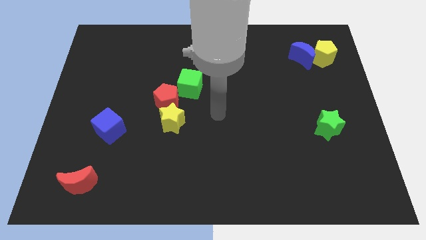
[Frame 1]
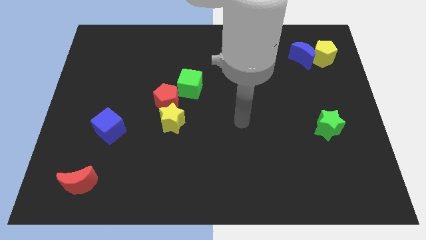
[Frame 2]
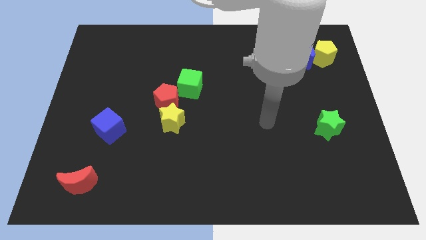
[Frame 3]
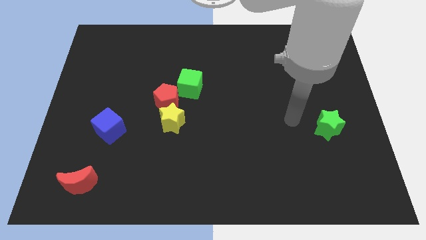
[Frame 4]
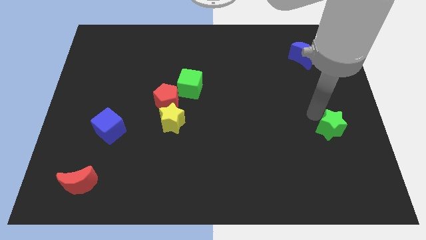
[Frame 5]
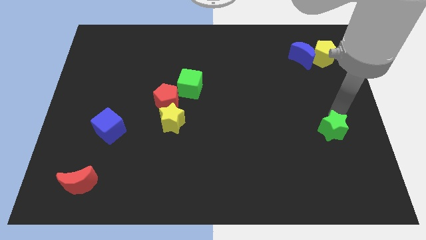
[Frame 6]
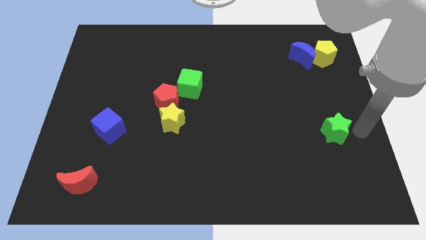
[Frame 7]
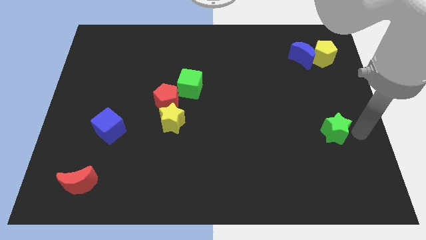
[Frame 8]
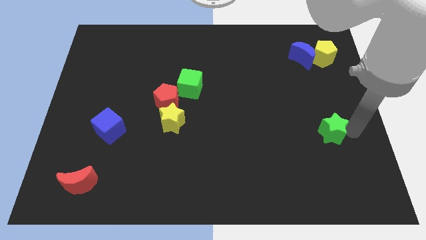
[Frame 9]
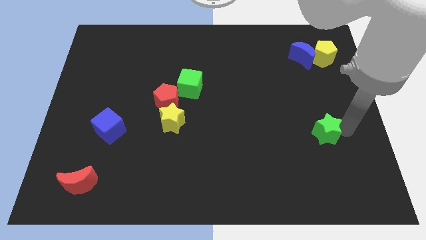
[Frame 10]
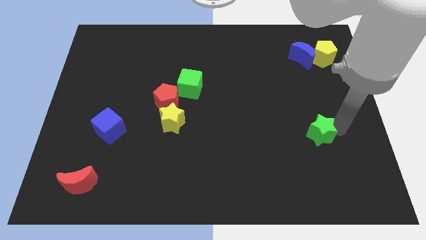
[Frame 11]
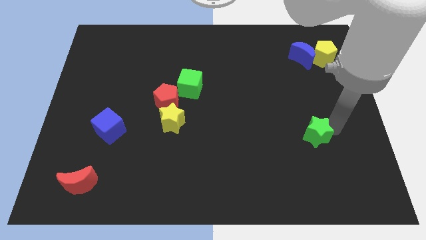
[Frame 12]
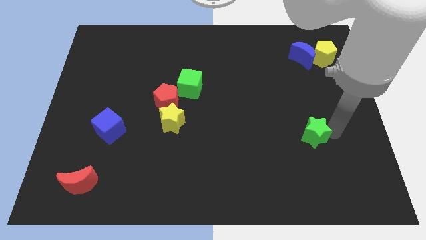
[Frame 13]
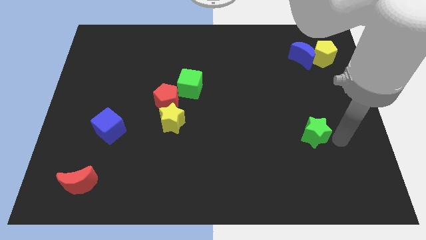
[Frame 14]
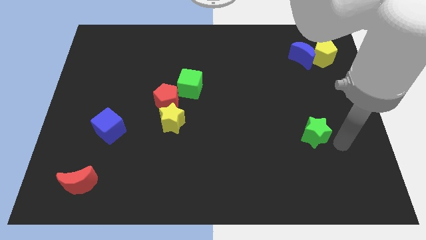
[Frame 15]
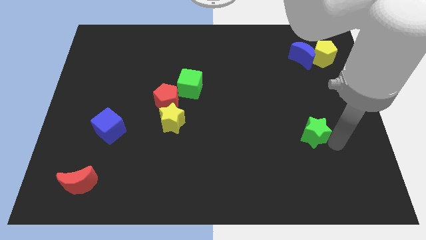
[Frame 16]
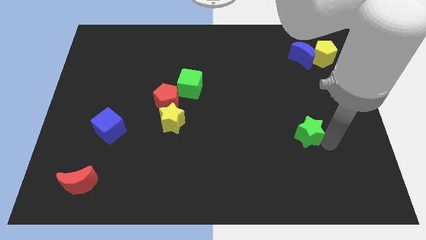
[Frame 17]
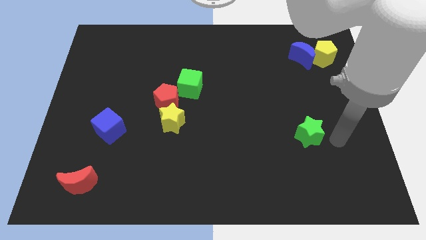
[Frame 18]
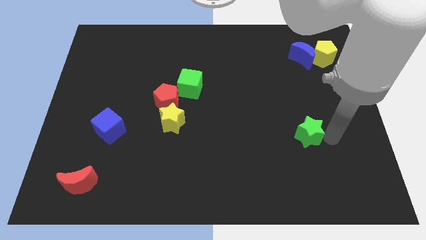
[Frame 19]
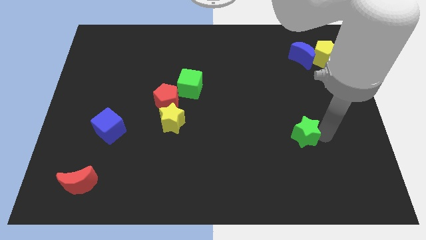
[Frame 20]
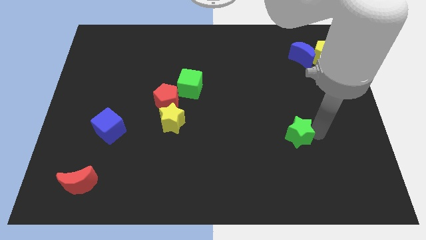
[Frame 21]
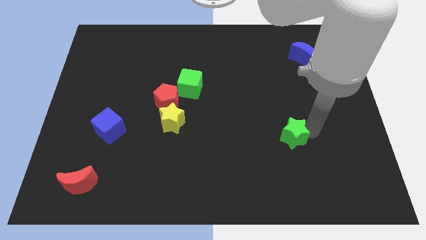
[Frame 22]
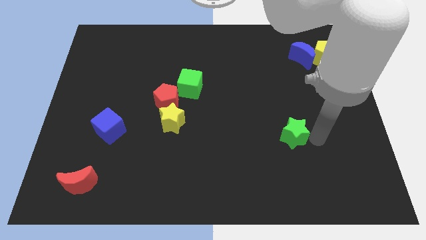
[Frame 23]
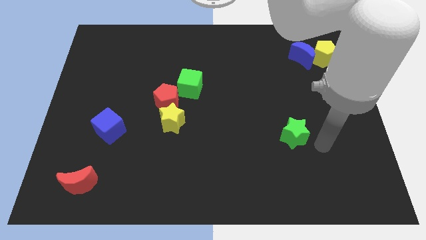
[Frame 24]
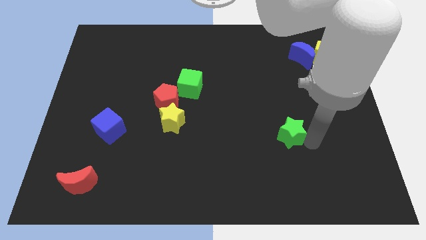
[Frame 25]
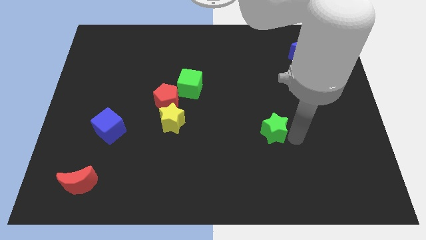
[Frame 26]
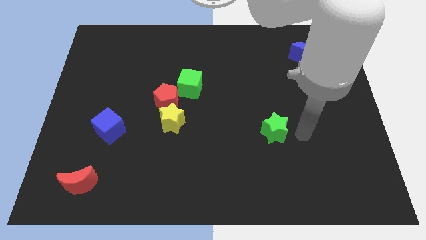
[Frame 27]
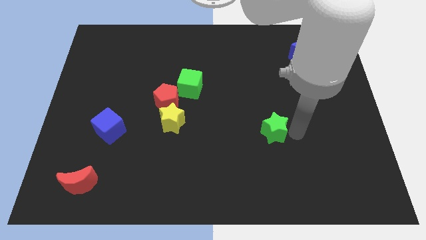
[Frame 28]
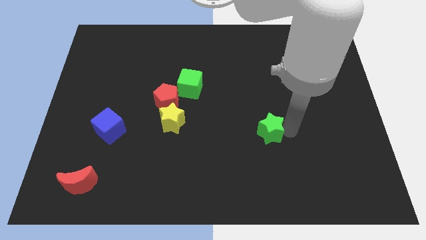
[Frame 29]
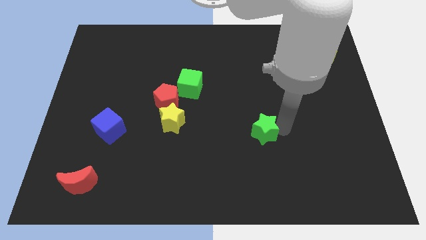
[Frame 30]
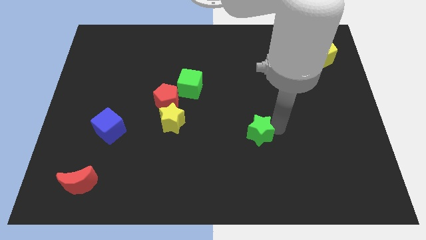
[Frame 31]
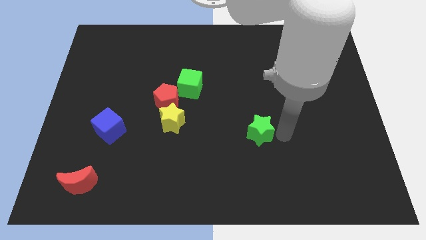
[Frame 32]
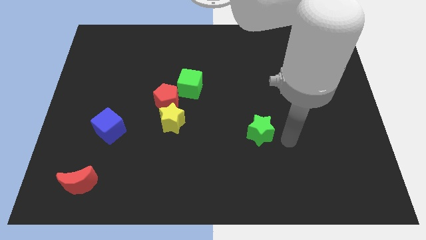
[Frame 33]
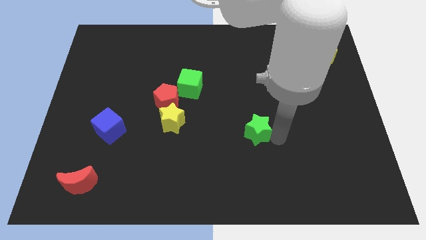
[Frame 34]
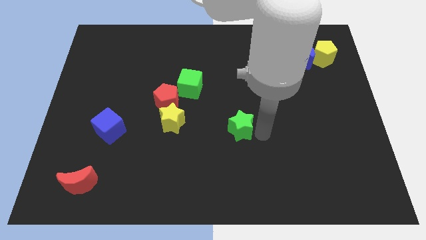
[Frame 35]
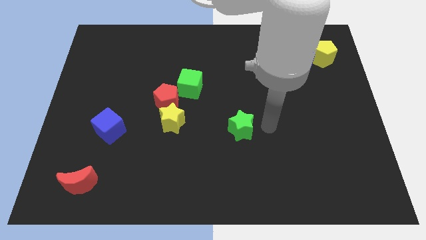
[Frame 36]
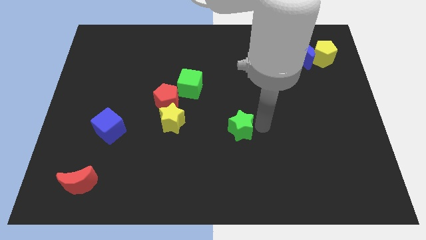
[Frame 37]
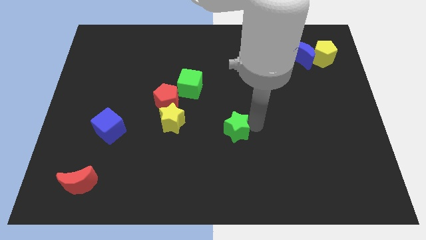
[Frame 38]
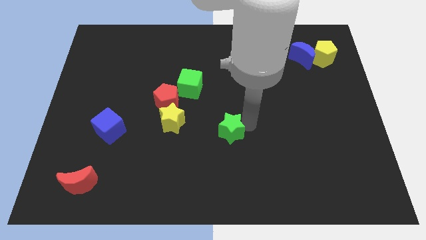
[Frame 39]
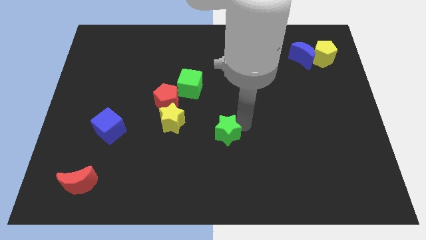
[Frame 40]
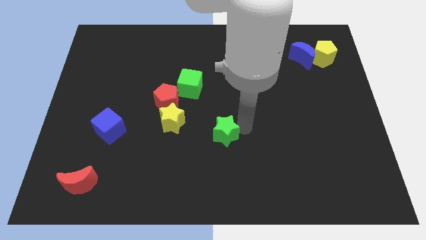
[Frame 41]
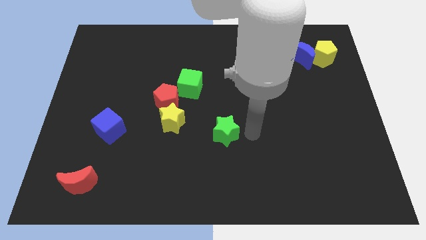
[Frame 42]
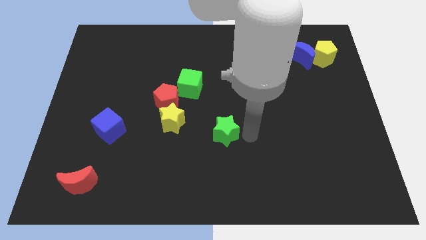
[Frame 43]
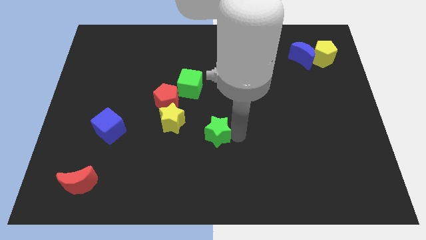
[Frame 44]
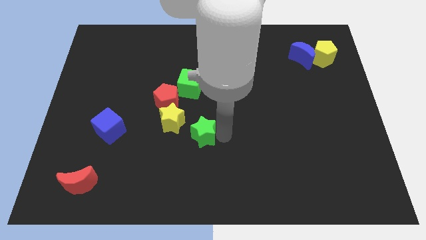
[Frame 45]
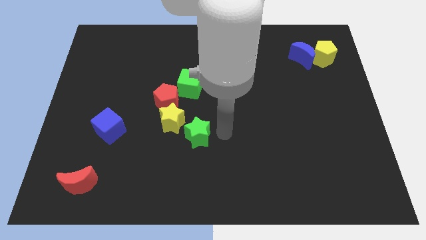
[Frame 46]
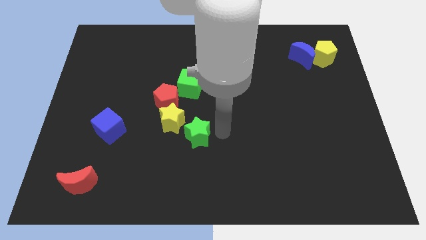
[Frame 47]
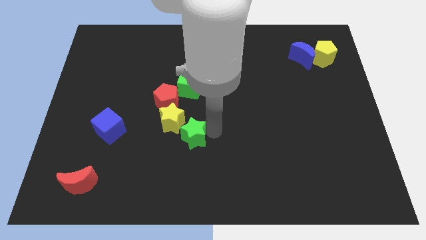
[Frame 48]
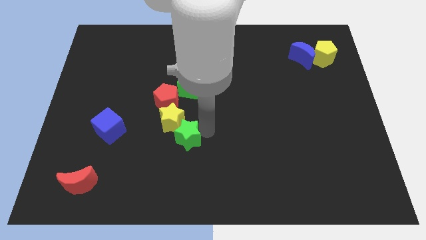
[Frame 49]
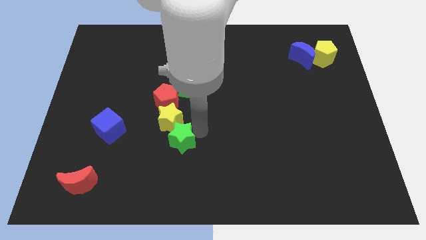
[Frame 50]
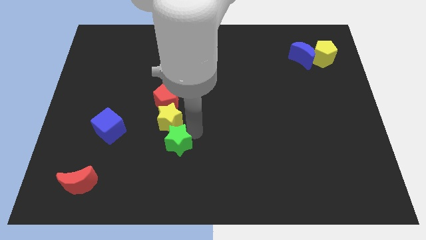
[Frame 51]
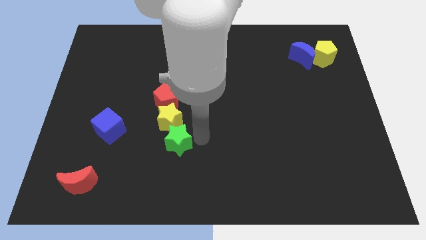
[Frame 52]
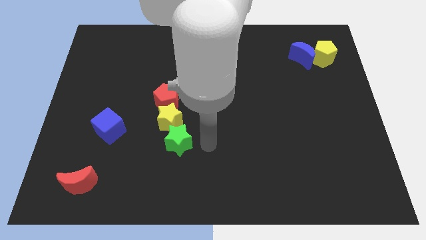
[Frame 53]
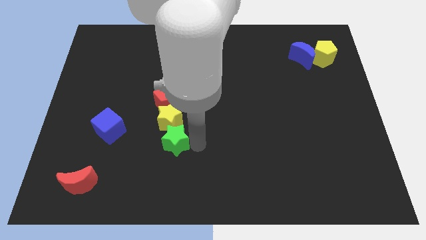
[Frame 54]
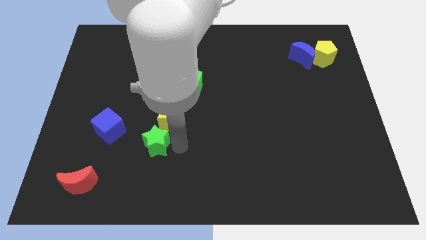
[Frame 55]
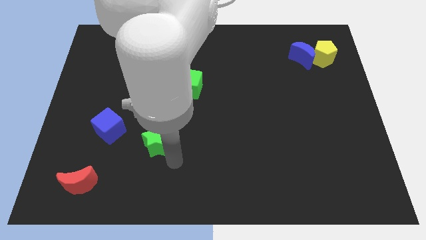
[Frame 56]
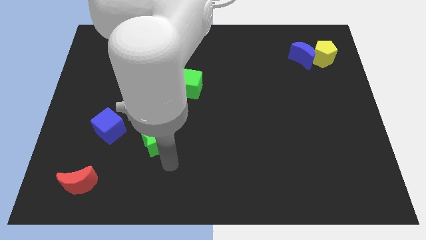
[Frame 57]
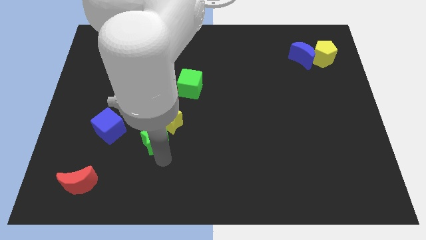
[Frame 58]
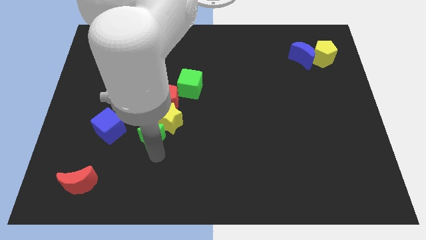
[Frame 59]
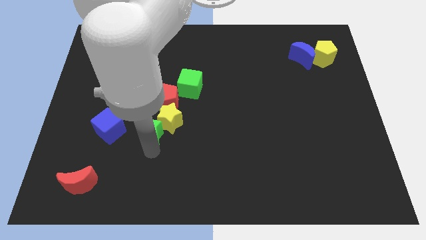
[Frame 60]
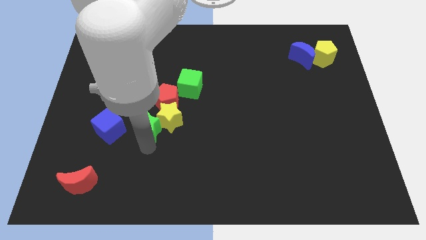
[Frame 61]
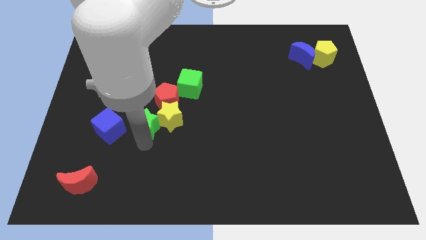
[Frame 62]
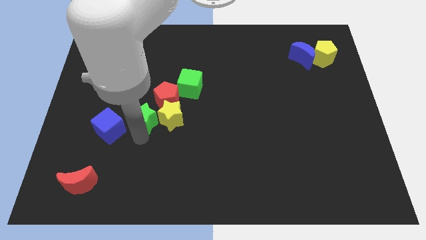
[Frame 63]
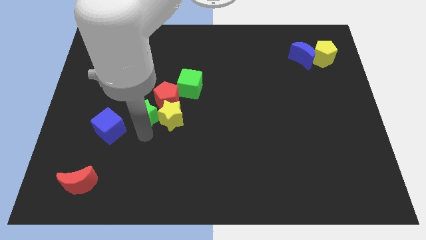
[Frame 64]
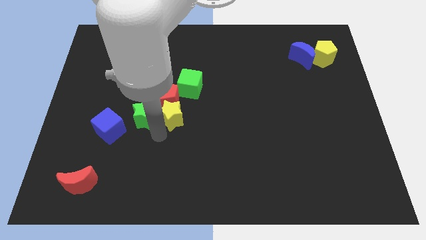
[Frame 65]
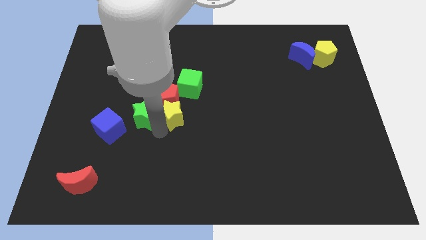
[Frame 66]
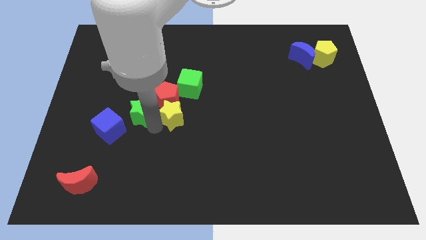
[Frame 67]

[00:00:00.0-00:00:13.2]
move the green star just left of the red pentagon

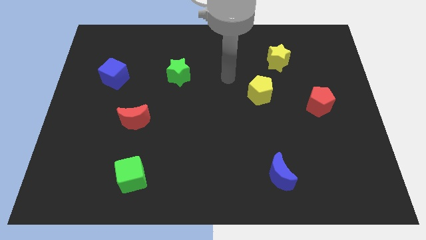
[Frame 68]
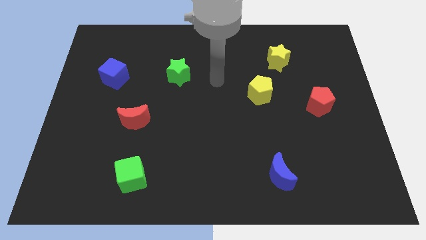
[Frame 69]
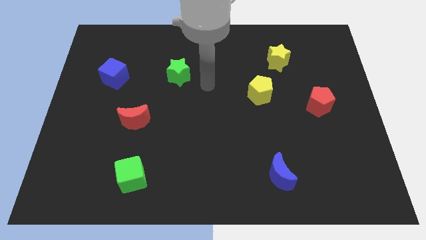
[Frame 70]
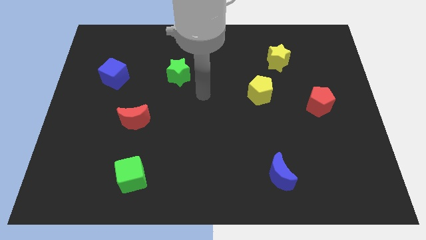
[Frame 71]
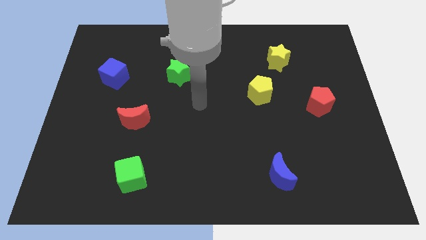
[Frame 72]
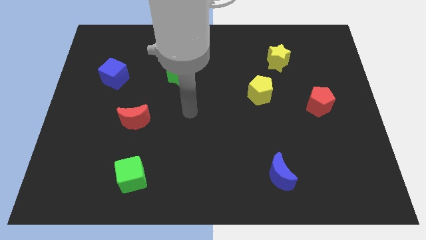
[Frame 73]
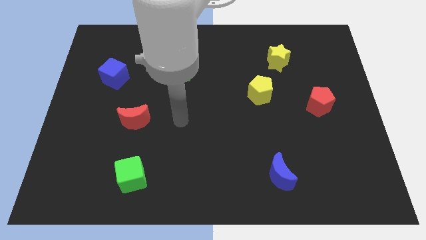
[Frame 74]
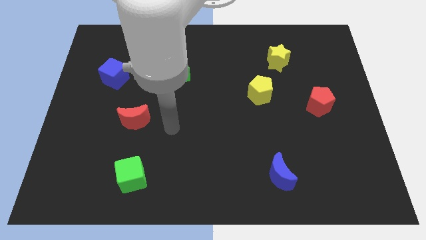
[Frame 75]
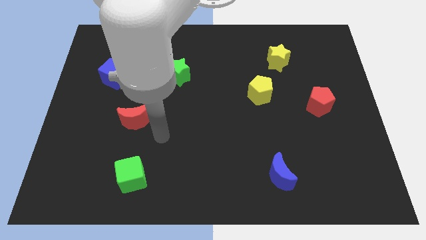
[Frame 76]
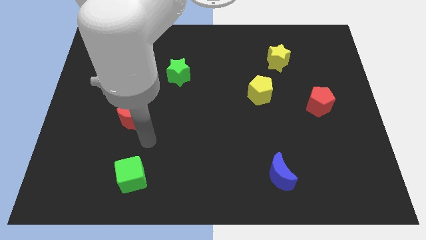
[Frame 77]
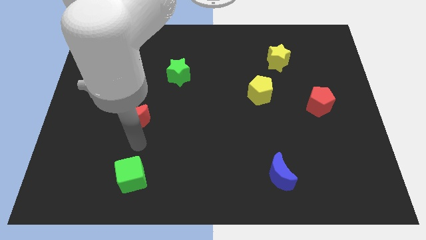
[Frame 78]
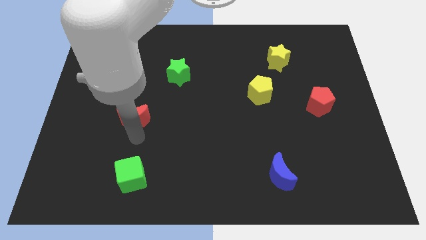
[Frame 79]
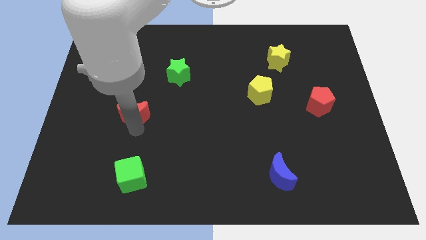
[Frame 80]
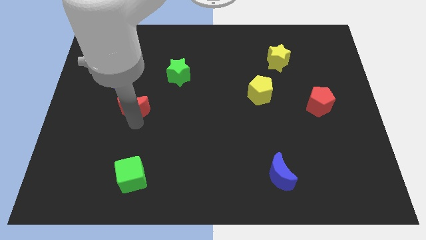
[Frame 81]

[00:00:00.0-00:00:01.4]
slide the red moon diagonally down and to the right of the blue cube
